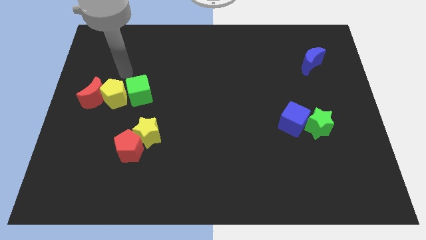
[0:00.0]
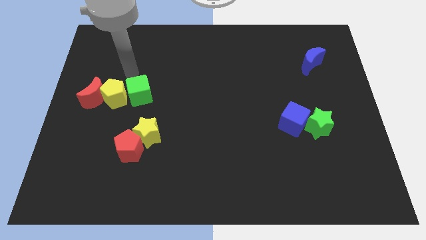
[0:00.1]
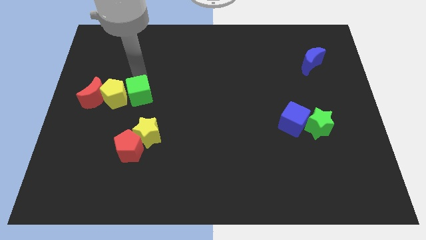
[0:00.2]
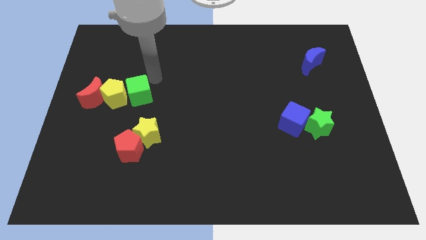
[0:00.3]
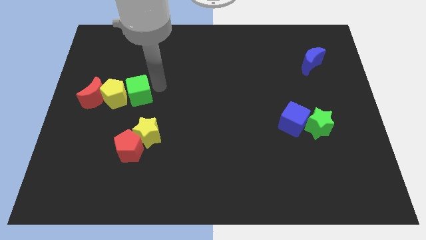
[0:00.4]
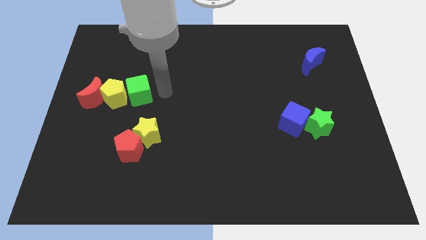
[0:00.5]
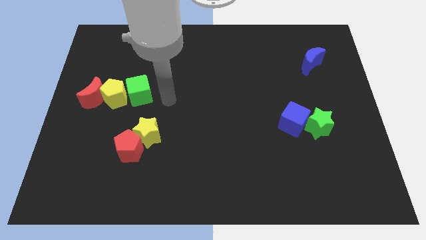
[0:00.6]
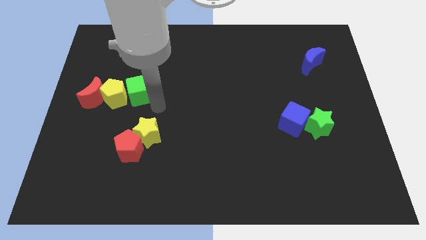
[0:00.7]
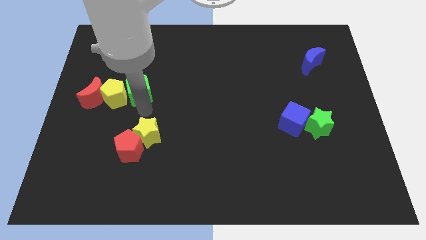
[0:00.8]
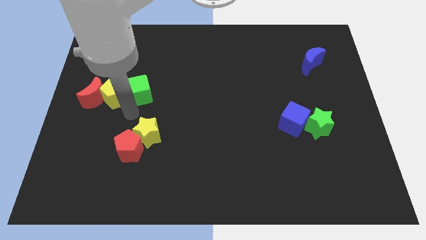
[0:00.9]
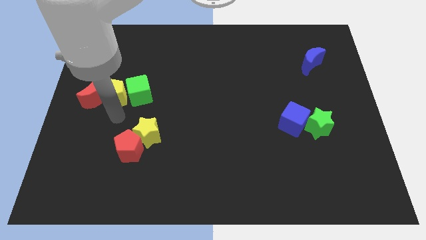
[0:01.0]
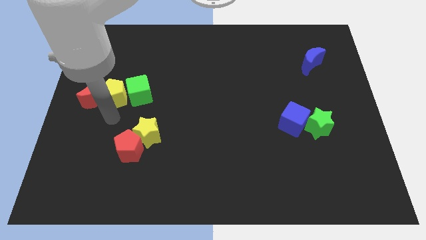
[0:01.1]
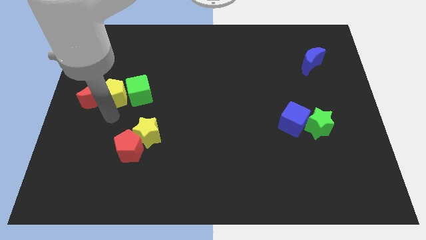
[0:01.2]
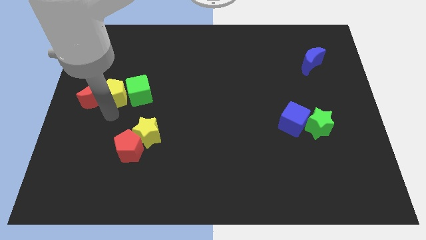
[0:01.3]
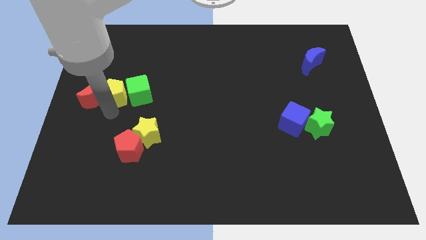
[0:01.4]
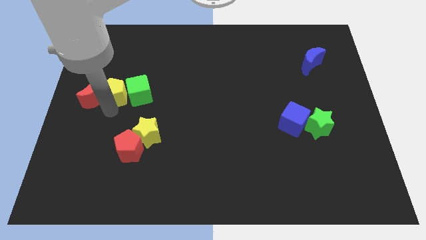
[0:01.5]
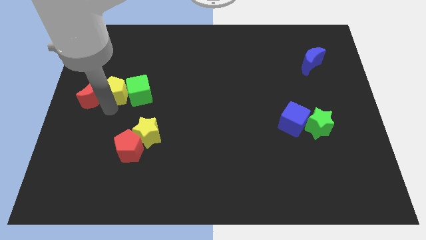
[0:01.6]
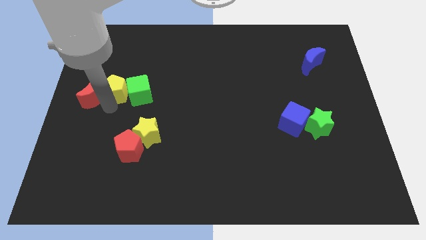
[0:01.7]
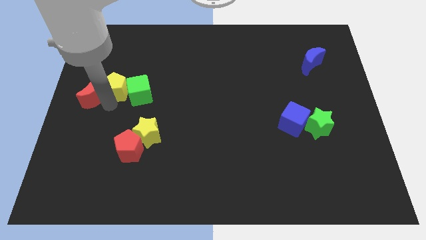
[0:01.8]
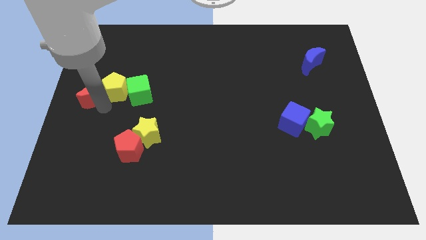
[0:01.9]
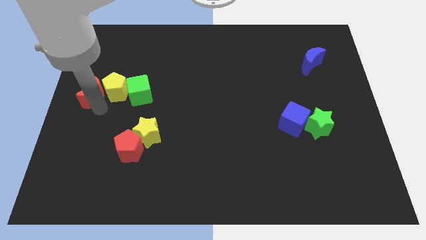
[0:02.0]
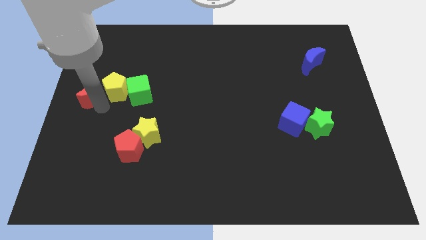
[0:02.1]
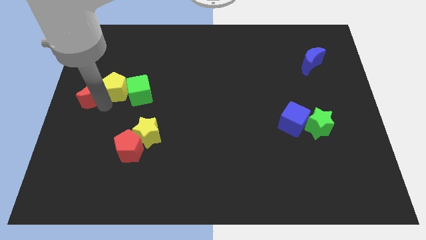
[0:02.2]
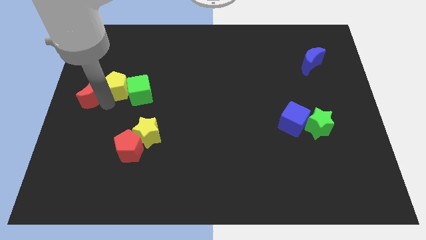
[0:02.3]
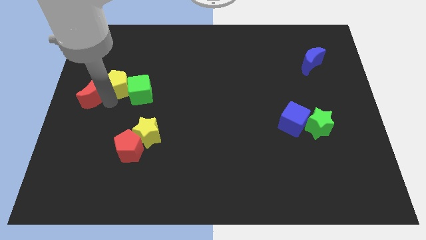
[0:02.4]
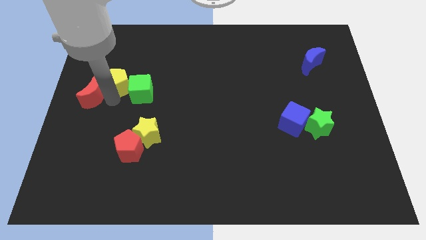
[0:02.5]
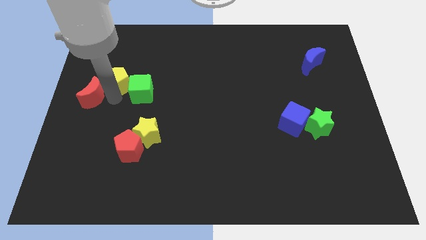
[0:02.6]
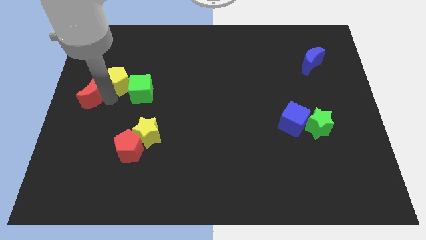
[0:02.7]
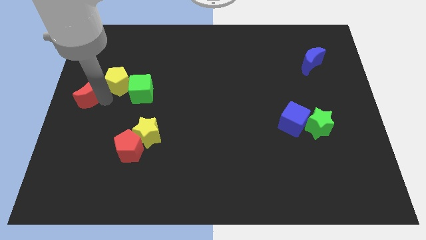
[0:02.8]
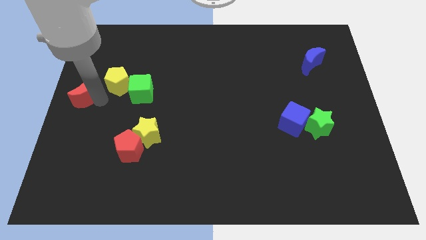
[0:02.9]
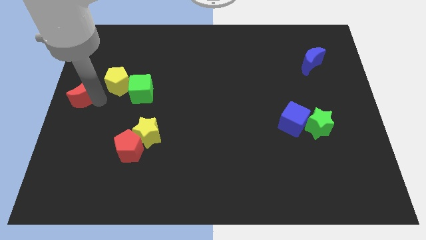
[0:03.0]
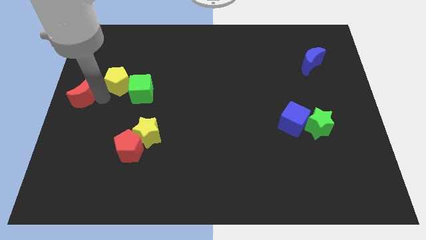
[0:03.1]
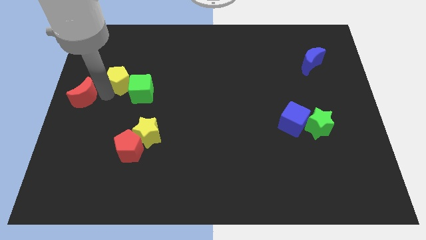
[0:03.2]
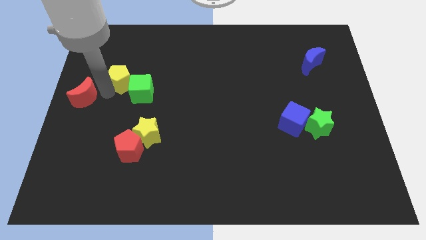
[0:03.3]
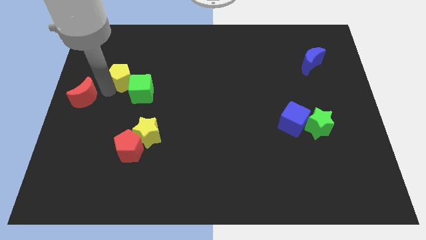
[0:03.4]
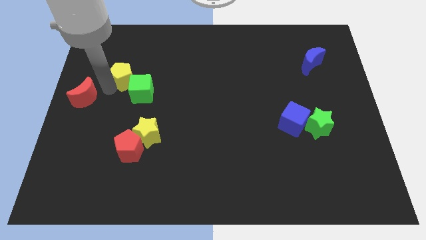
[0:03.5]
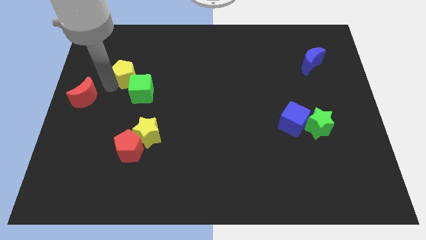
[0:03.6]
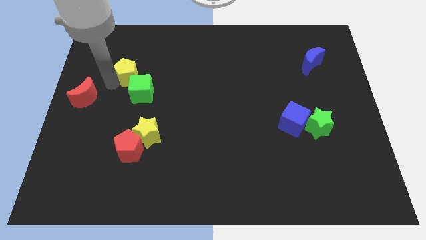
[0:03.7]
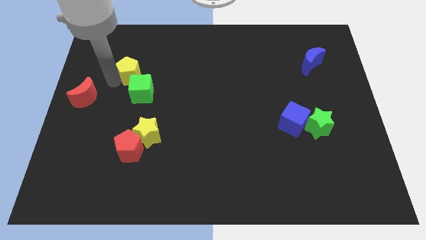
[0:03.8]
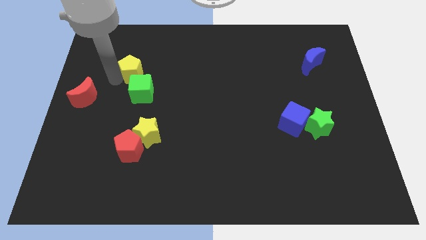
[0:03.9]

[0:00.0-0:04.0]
move the yellow pentagon diagonally up and to the right a little

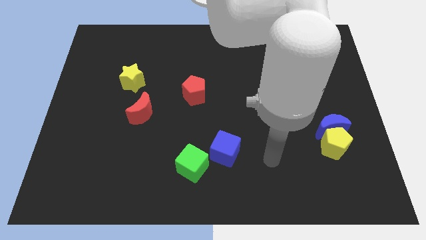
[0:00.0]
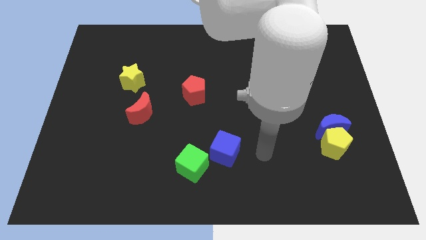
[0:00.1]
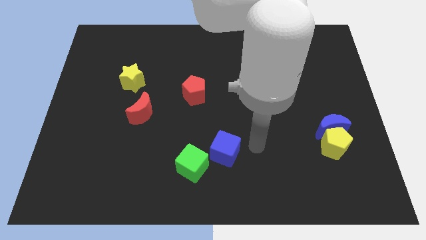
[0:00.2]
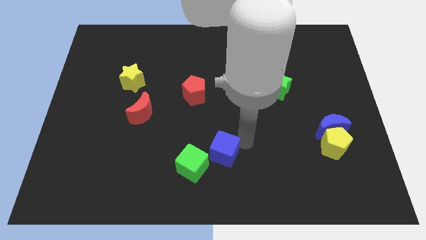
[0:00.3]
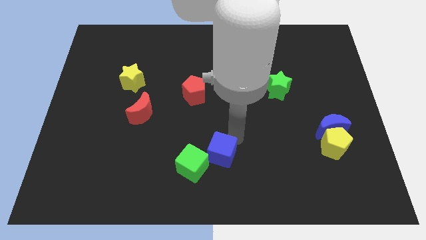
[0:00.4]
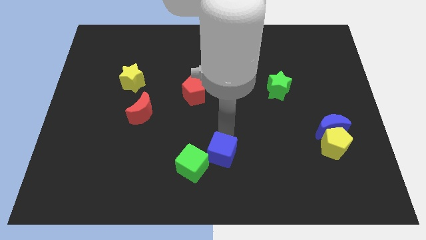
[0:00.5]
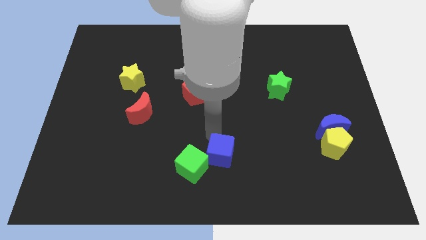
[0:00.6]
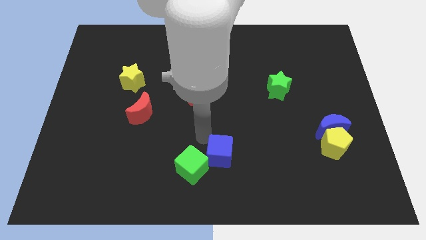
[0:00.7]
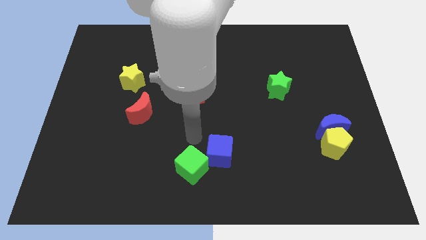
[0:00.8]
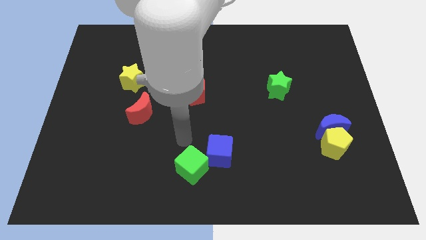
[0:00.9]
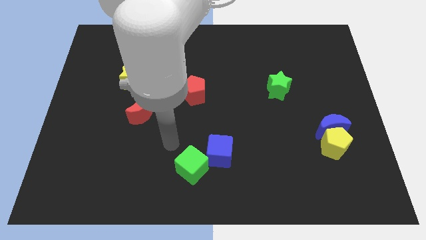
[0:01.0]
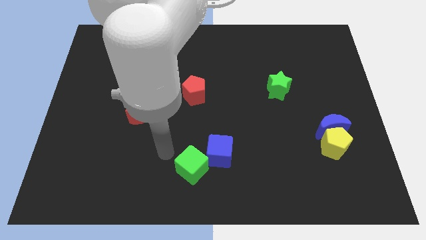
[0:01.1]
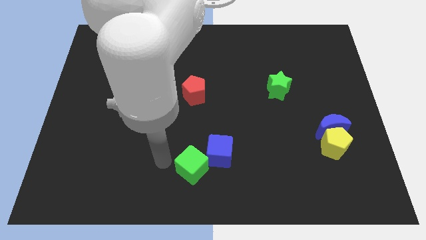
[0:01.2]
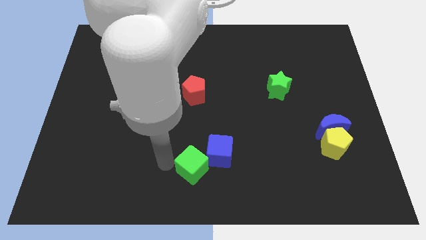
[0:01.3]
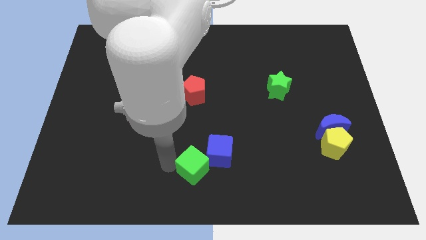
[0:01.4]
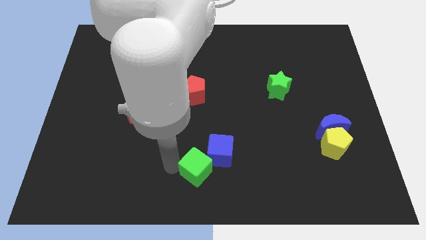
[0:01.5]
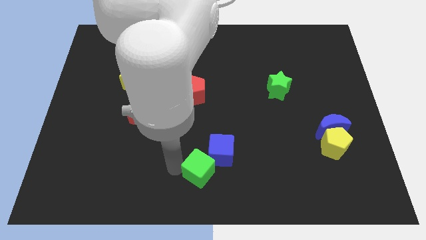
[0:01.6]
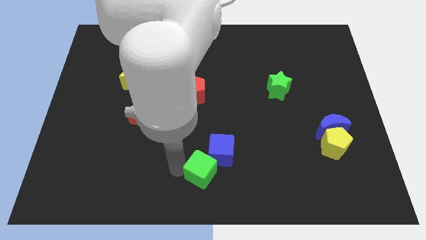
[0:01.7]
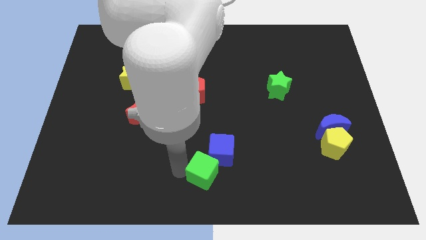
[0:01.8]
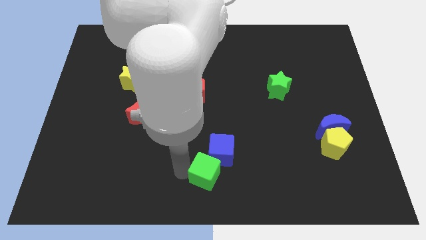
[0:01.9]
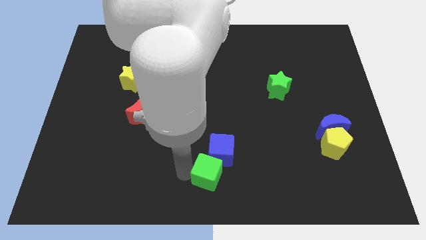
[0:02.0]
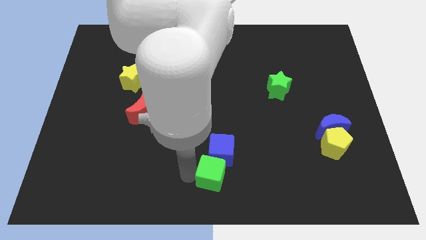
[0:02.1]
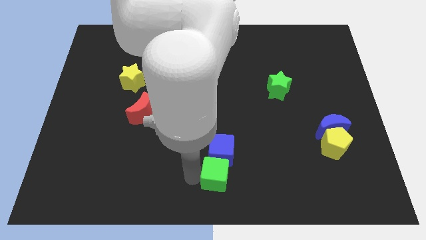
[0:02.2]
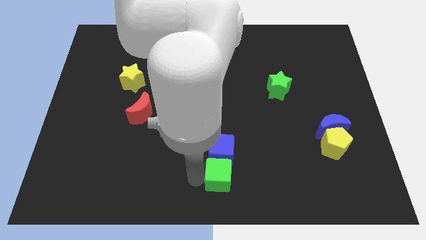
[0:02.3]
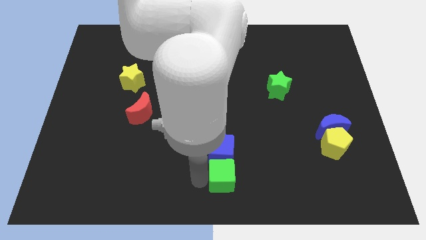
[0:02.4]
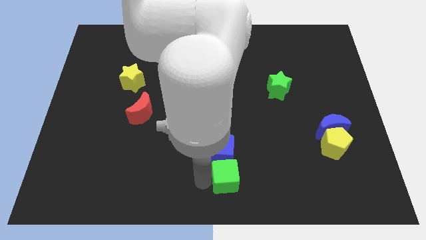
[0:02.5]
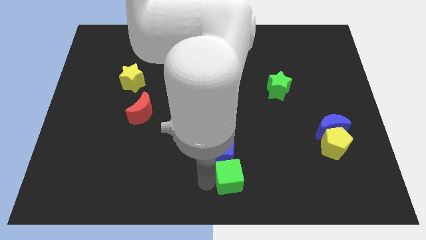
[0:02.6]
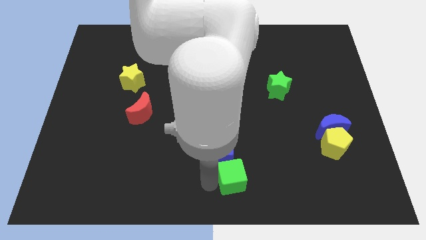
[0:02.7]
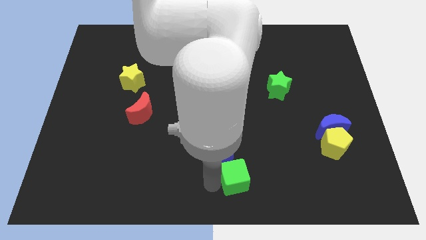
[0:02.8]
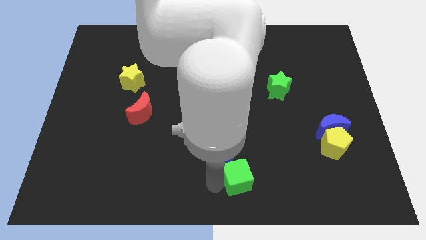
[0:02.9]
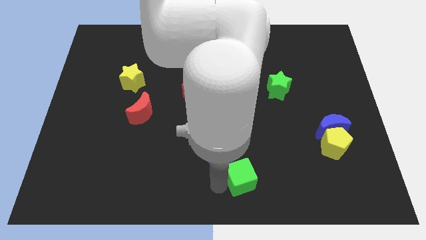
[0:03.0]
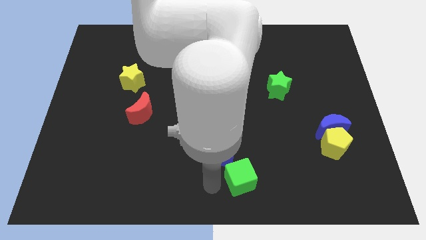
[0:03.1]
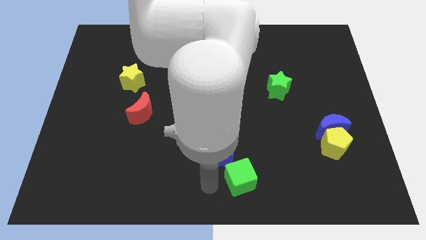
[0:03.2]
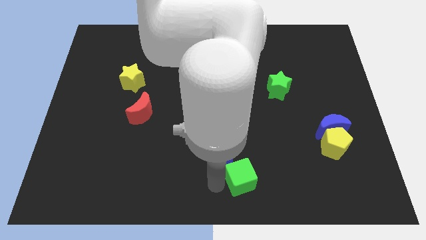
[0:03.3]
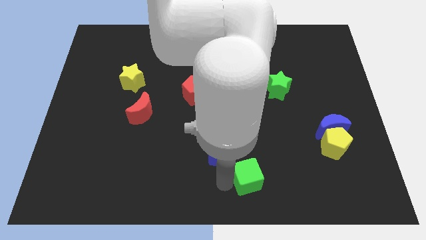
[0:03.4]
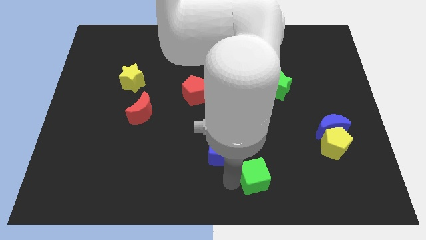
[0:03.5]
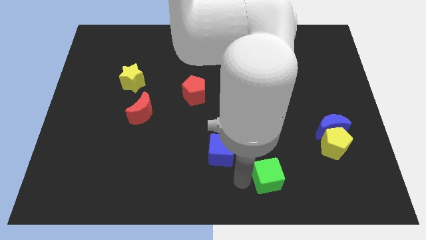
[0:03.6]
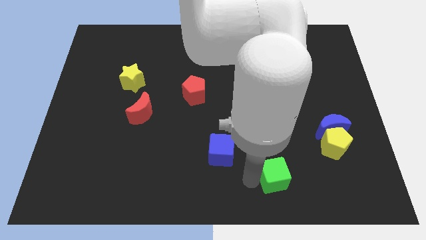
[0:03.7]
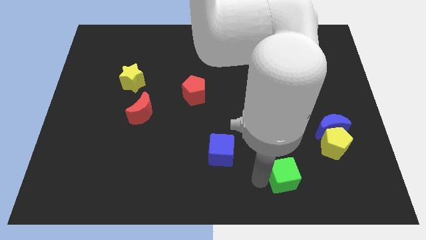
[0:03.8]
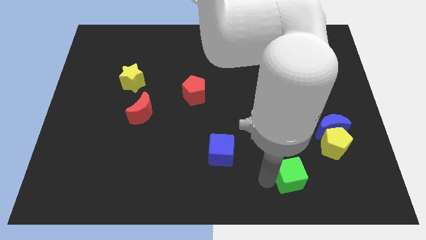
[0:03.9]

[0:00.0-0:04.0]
slide the green cube right

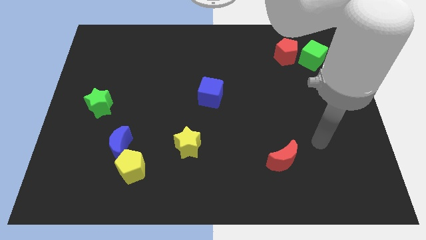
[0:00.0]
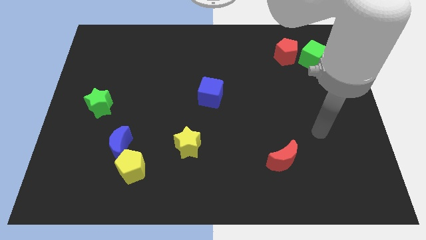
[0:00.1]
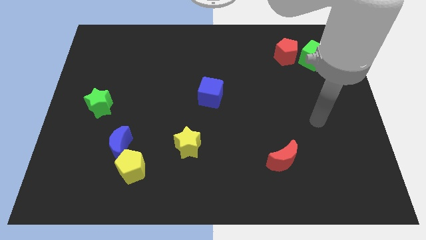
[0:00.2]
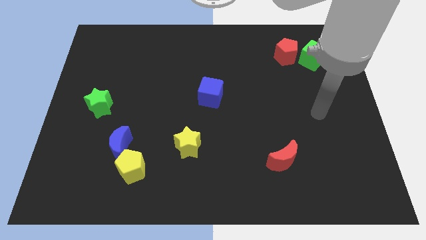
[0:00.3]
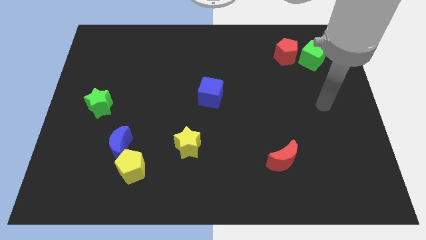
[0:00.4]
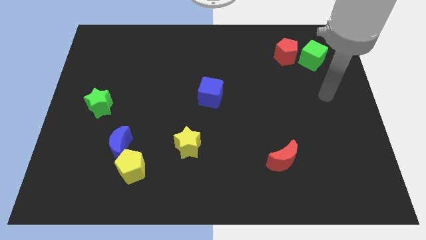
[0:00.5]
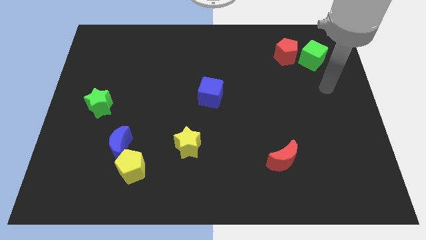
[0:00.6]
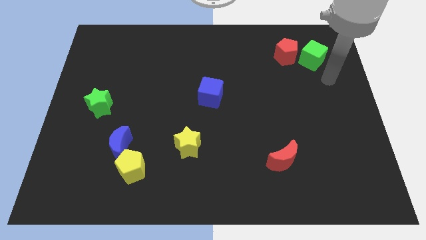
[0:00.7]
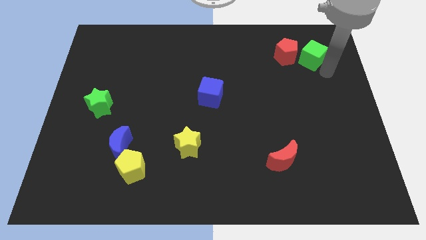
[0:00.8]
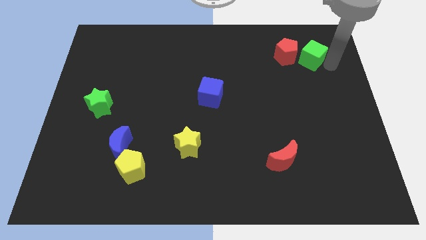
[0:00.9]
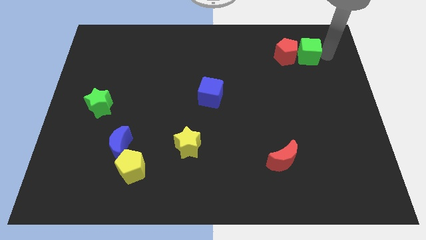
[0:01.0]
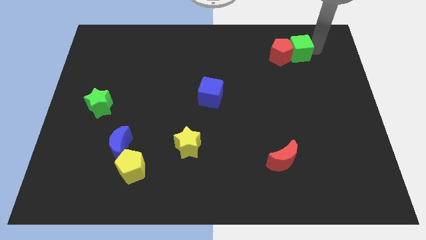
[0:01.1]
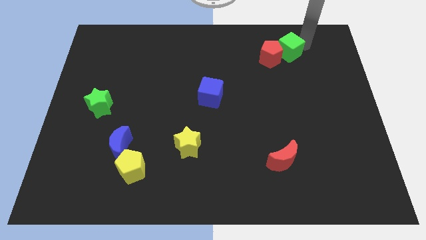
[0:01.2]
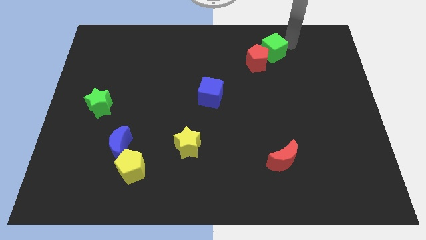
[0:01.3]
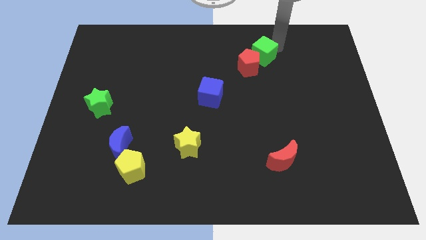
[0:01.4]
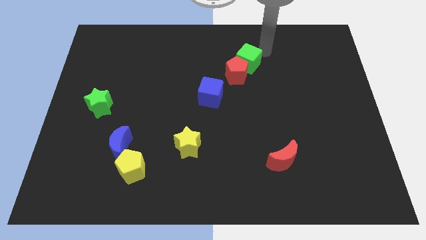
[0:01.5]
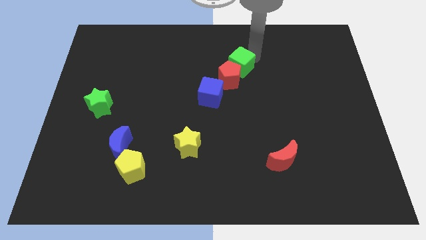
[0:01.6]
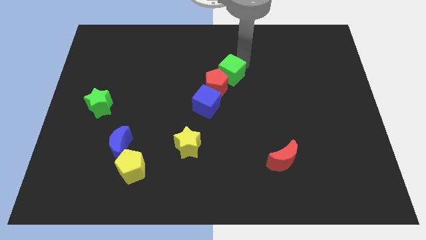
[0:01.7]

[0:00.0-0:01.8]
push the red pentagon down and then left
